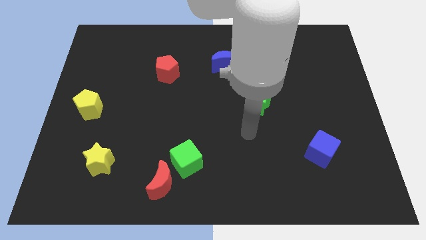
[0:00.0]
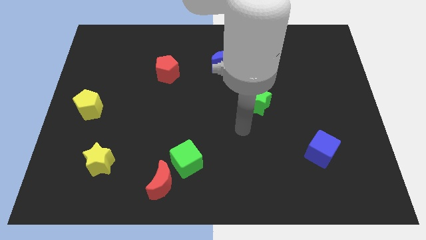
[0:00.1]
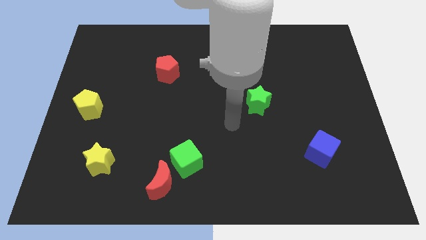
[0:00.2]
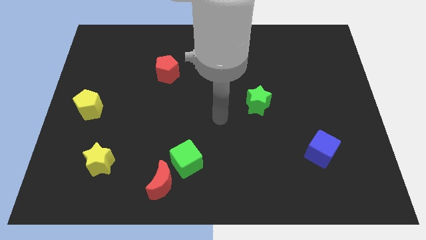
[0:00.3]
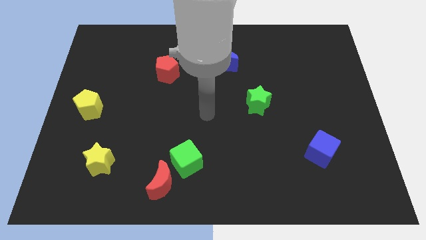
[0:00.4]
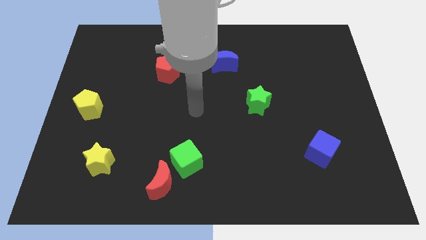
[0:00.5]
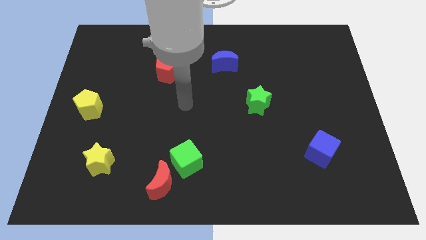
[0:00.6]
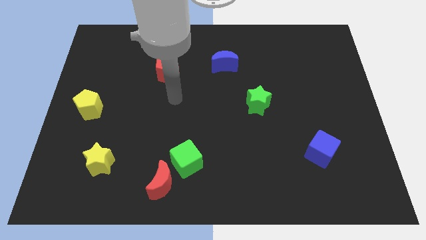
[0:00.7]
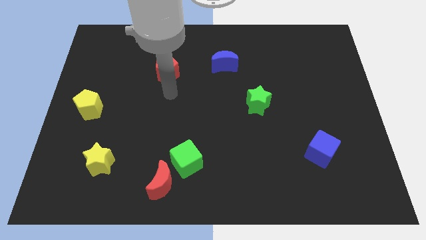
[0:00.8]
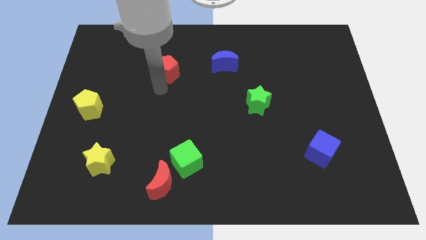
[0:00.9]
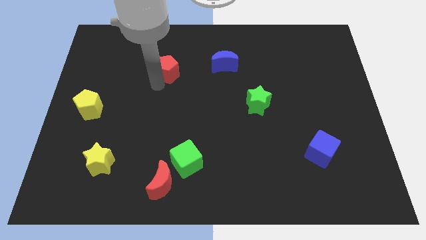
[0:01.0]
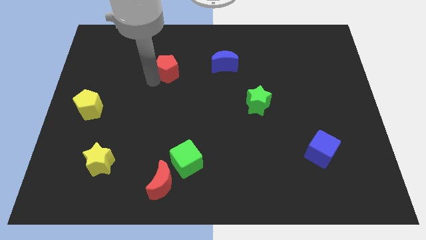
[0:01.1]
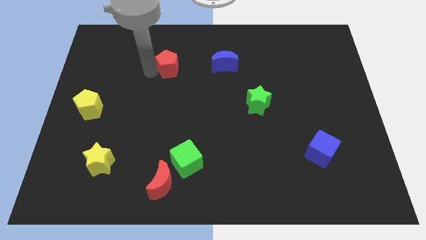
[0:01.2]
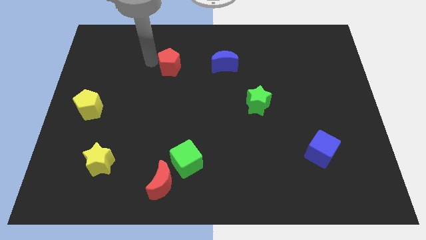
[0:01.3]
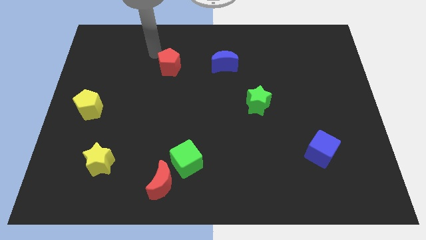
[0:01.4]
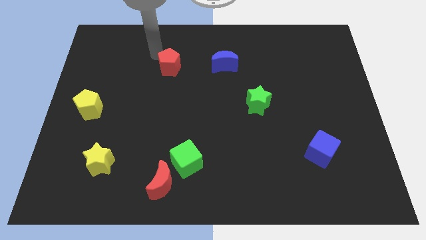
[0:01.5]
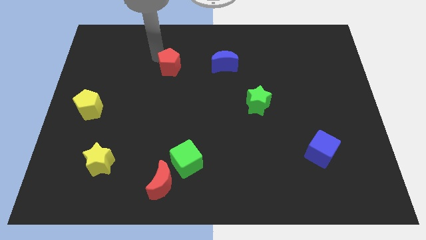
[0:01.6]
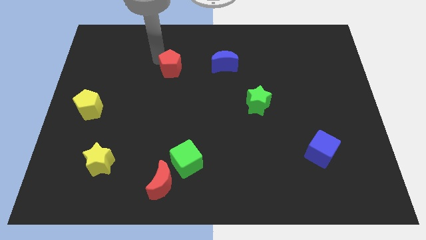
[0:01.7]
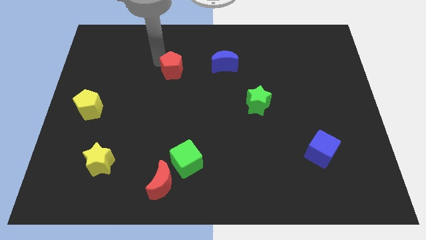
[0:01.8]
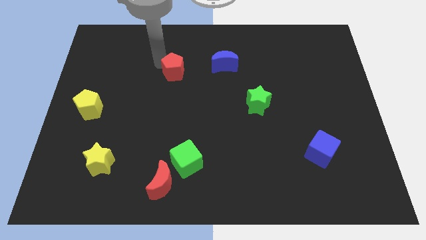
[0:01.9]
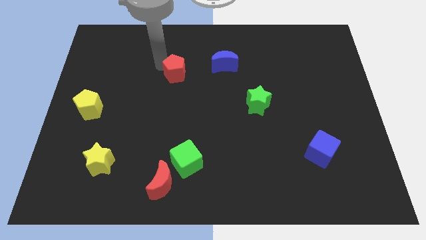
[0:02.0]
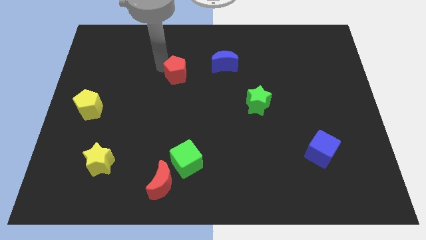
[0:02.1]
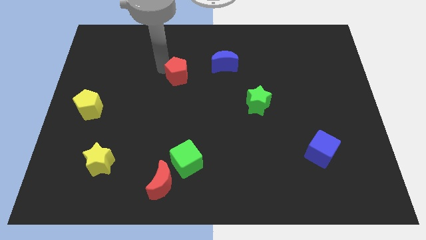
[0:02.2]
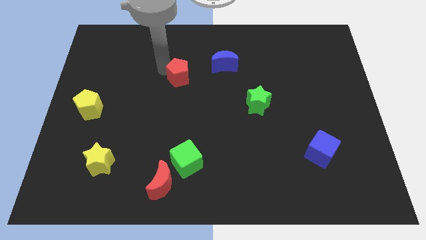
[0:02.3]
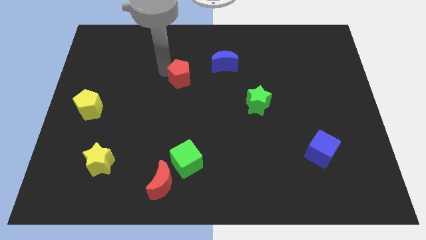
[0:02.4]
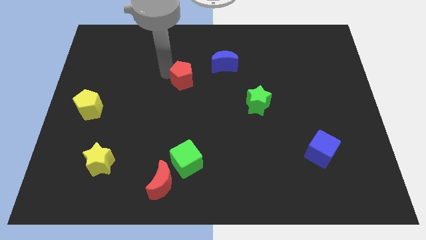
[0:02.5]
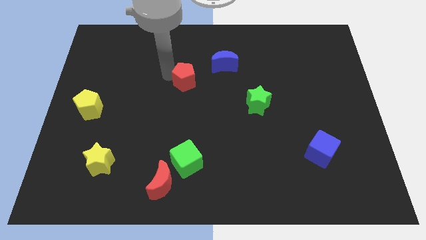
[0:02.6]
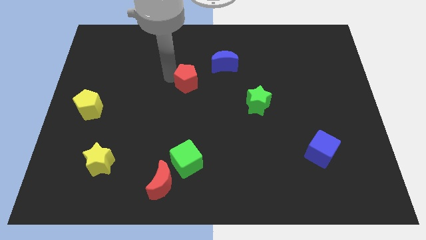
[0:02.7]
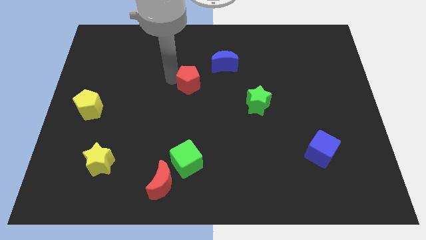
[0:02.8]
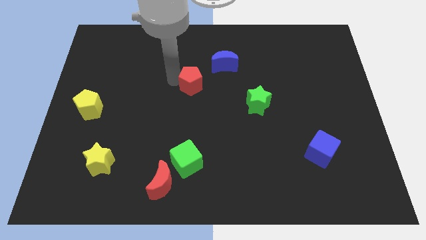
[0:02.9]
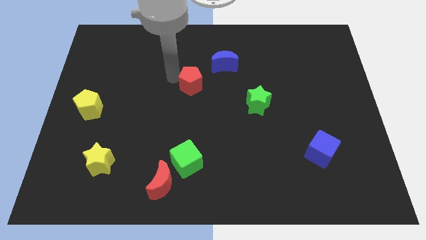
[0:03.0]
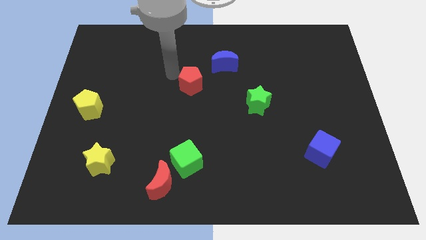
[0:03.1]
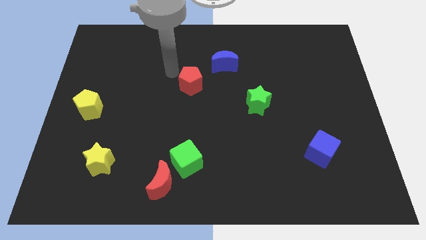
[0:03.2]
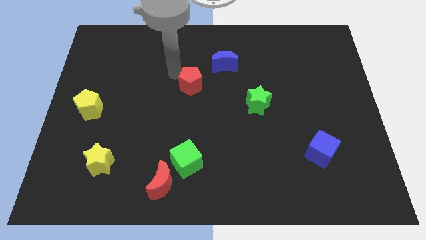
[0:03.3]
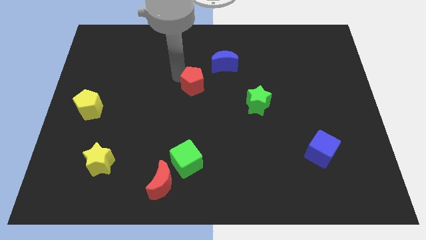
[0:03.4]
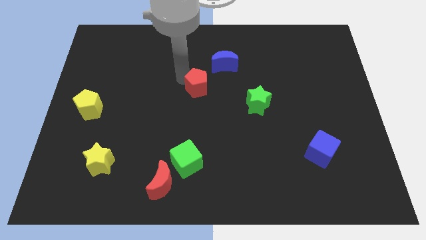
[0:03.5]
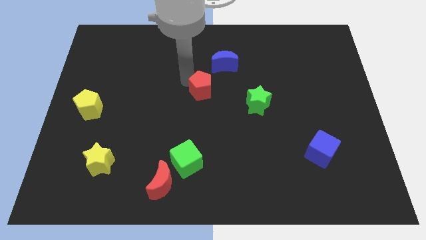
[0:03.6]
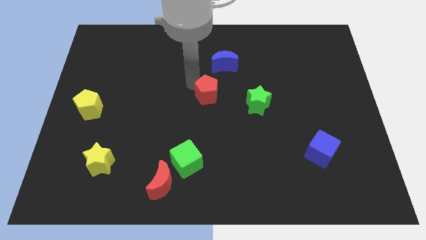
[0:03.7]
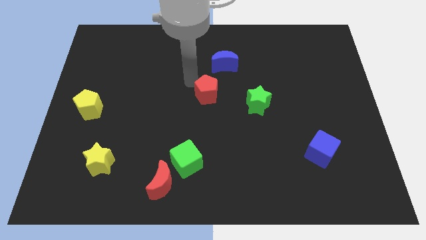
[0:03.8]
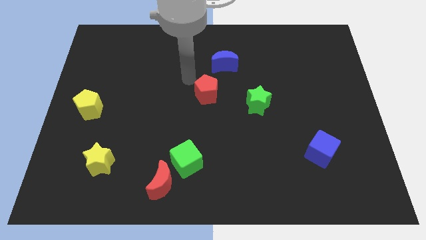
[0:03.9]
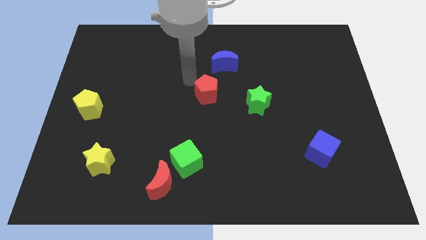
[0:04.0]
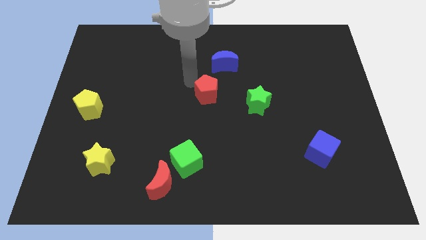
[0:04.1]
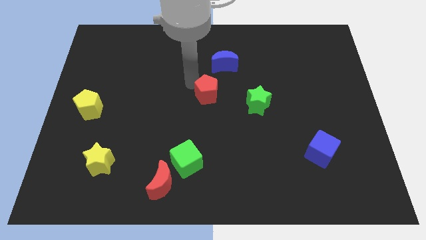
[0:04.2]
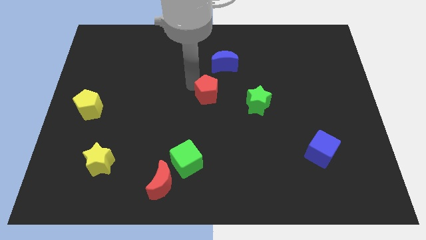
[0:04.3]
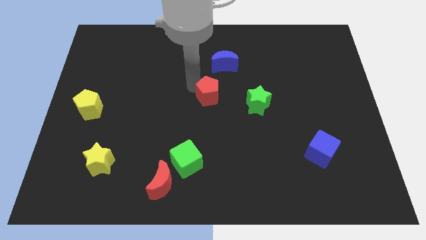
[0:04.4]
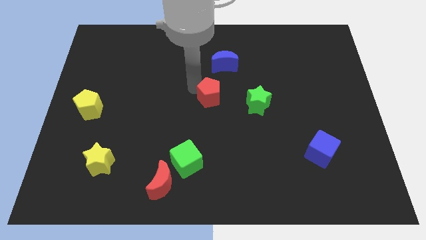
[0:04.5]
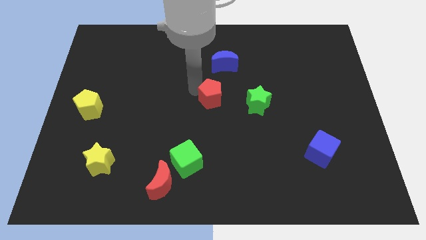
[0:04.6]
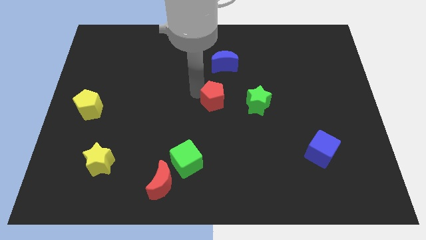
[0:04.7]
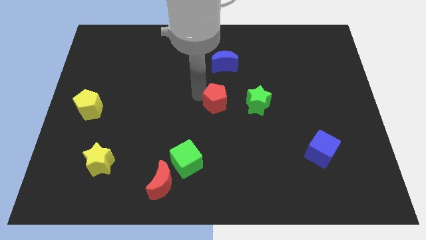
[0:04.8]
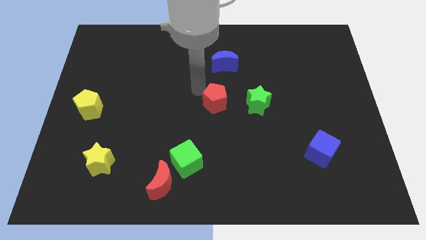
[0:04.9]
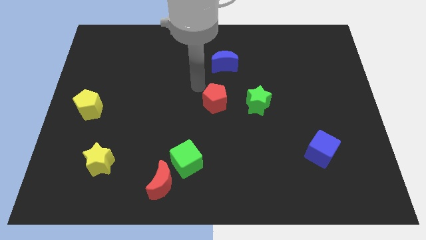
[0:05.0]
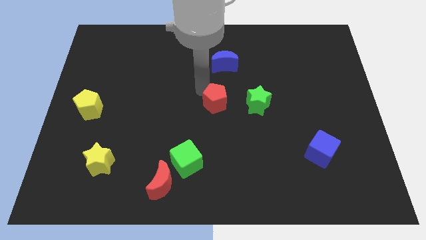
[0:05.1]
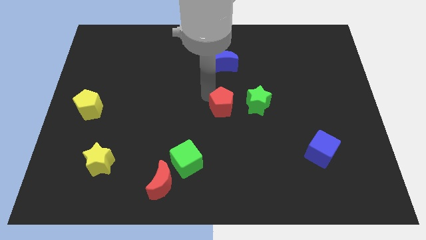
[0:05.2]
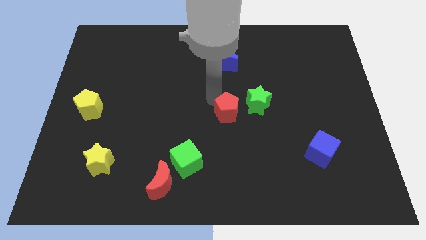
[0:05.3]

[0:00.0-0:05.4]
push the red pentagon diagonally down and to the left of the green star

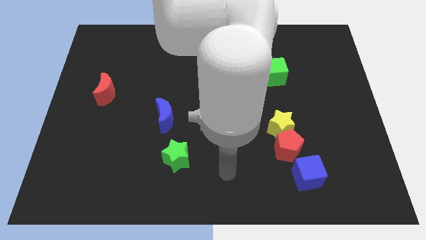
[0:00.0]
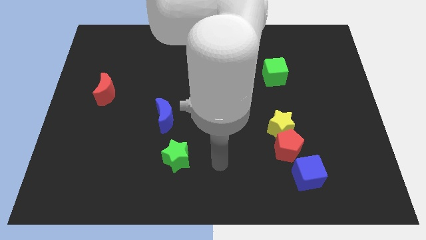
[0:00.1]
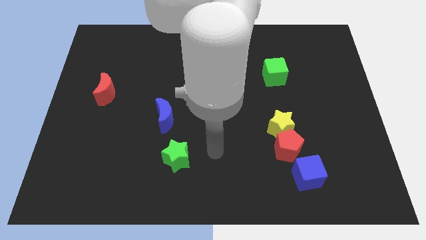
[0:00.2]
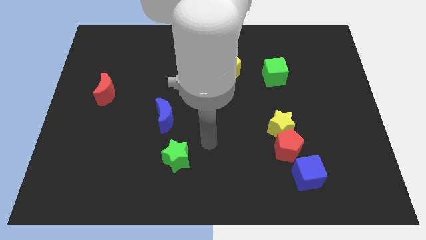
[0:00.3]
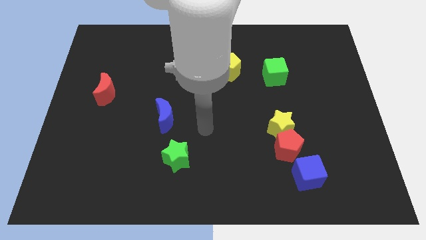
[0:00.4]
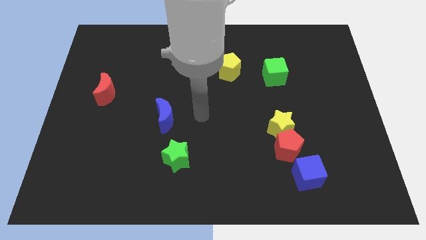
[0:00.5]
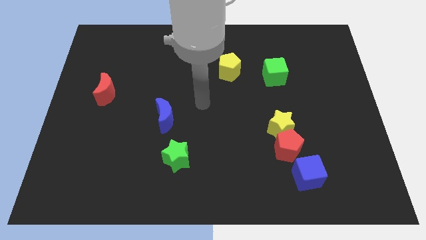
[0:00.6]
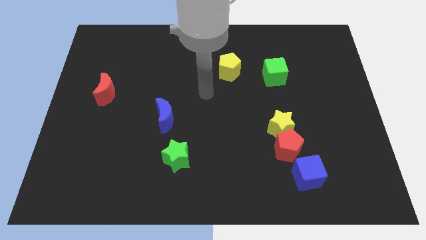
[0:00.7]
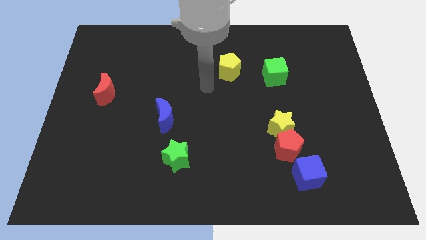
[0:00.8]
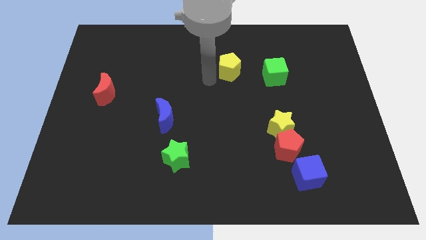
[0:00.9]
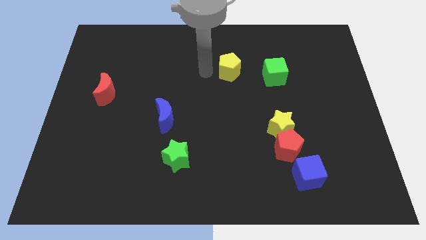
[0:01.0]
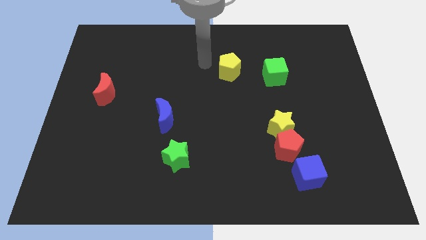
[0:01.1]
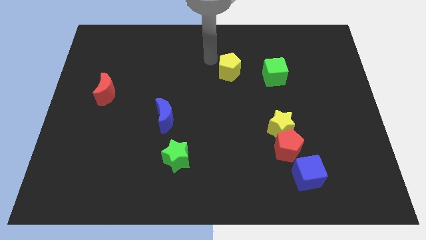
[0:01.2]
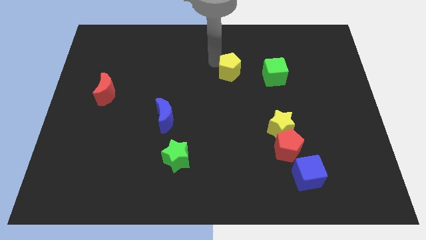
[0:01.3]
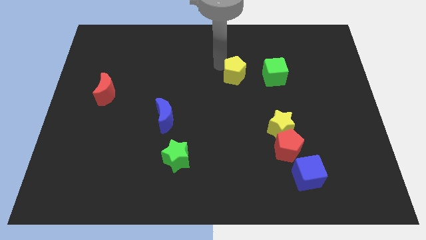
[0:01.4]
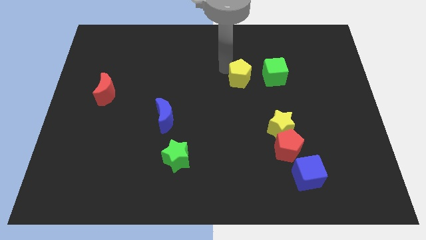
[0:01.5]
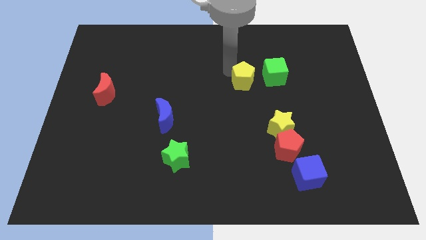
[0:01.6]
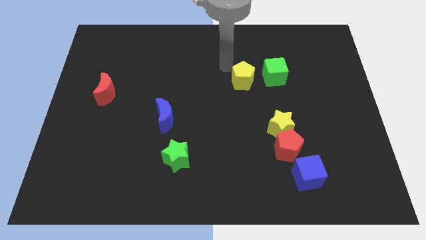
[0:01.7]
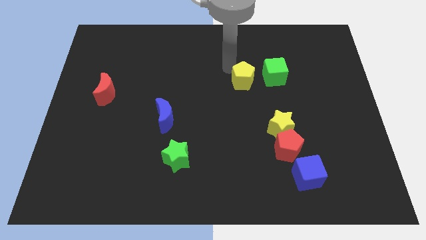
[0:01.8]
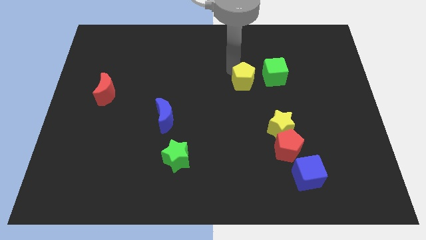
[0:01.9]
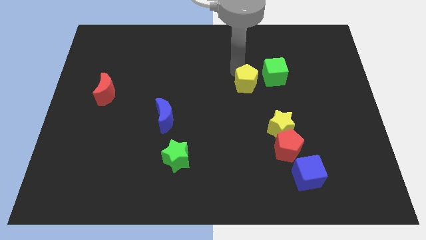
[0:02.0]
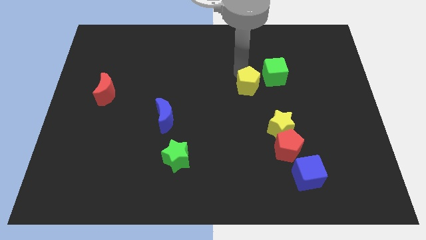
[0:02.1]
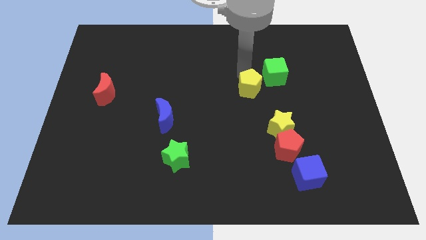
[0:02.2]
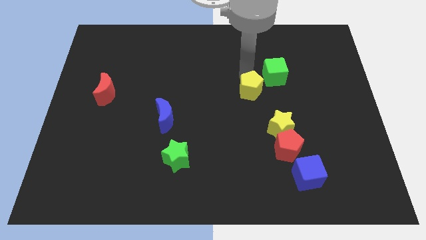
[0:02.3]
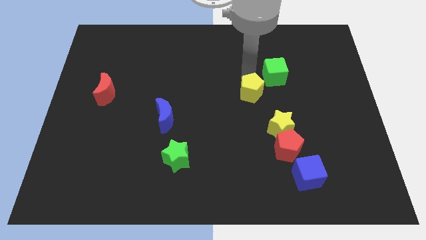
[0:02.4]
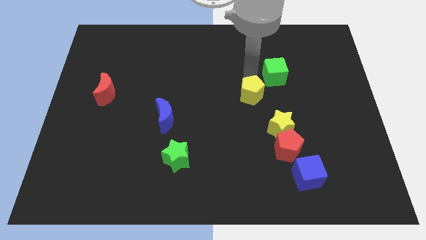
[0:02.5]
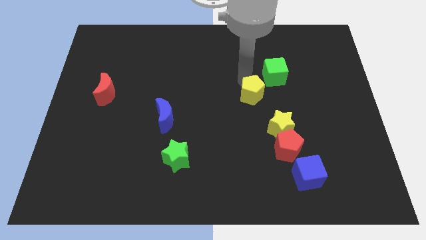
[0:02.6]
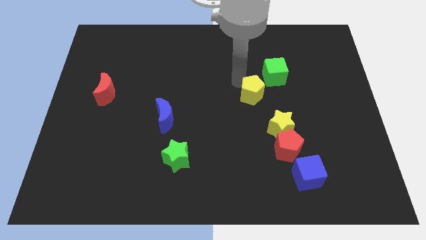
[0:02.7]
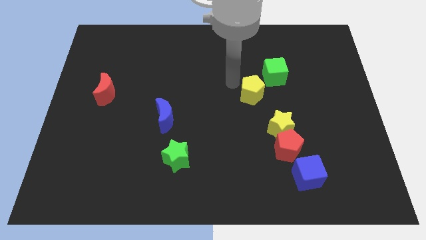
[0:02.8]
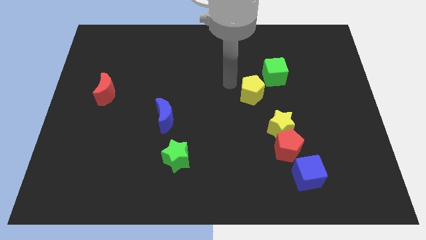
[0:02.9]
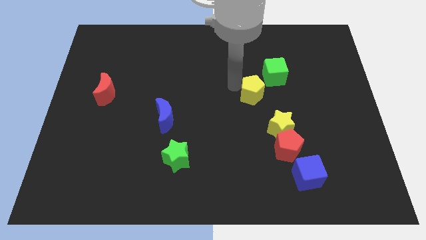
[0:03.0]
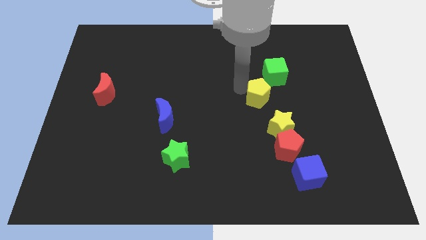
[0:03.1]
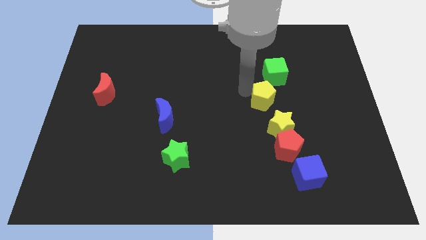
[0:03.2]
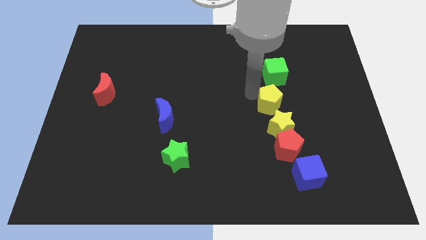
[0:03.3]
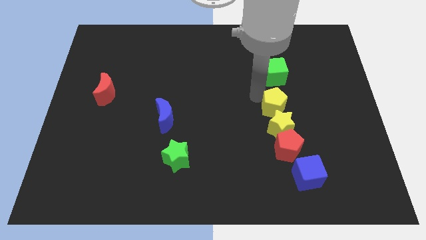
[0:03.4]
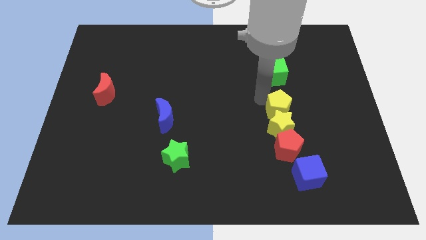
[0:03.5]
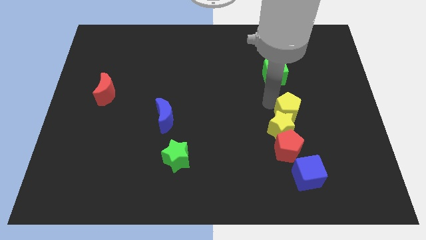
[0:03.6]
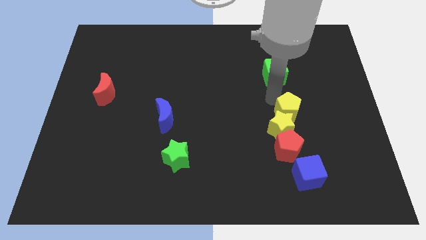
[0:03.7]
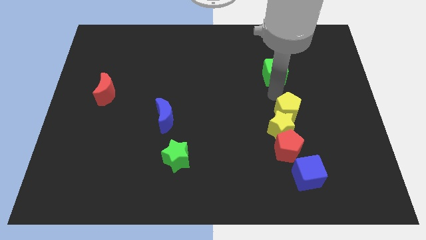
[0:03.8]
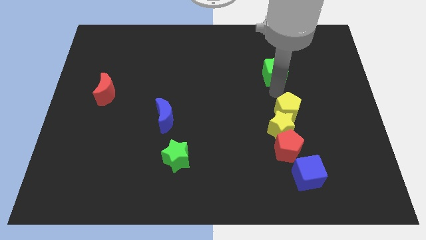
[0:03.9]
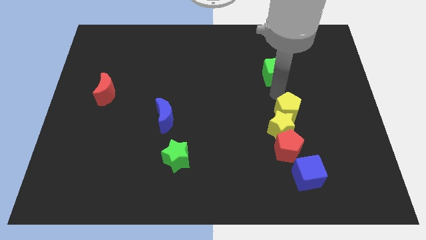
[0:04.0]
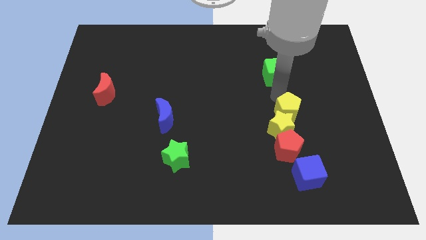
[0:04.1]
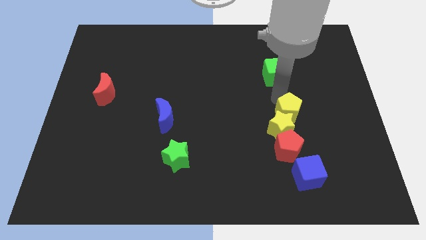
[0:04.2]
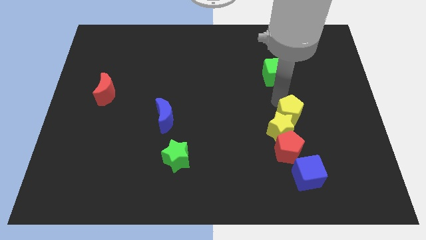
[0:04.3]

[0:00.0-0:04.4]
move the yellow pentagon to the top side of the blue cube
